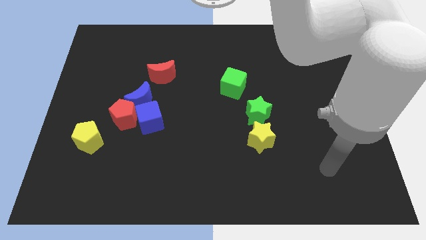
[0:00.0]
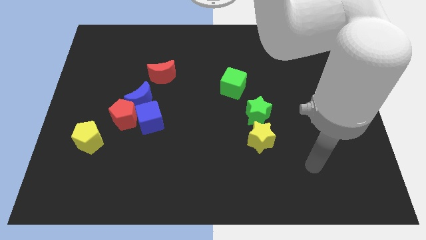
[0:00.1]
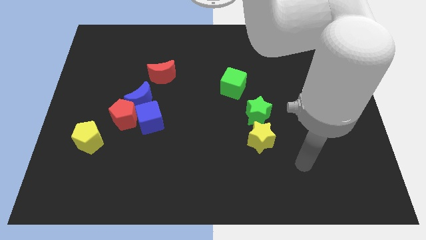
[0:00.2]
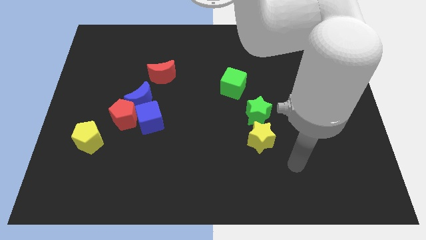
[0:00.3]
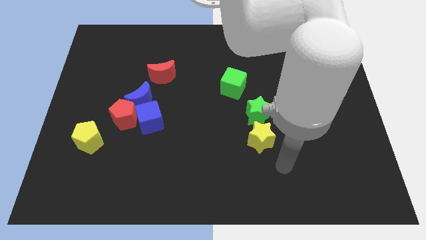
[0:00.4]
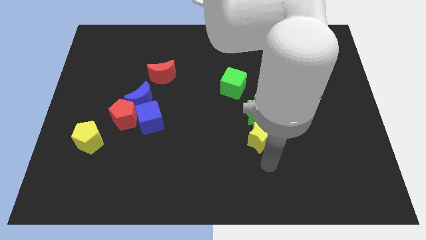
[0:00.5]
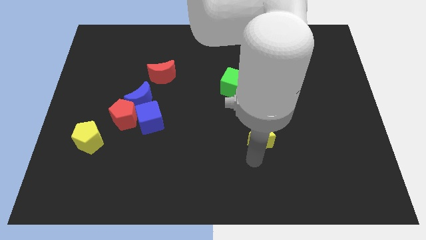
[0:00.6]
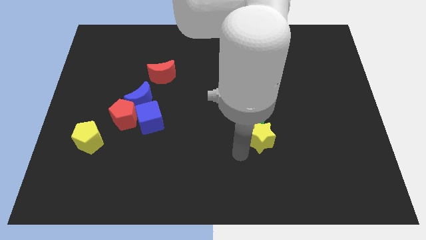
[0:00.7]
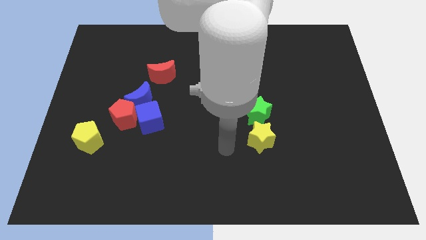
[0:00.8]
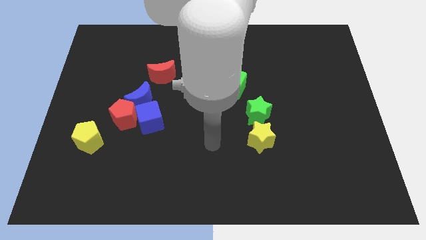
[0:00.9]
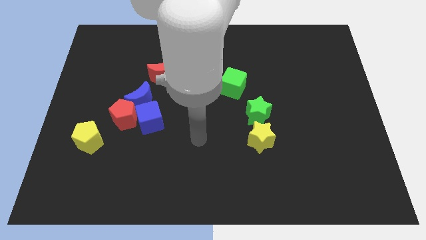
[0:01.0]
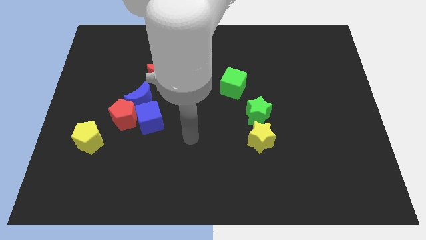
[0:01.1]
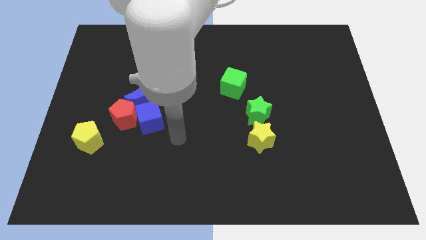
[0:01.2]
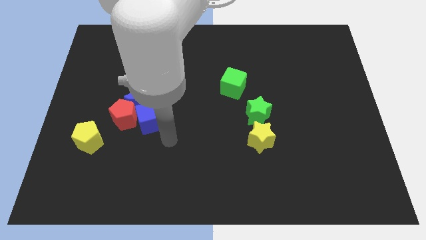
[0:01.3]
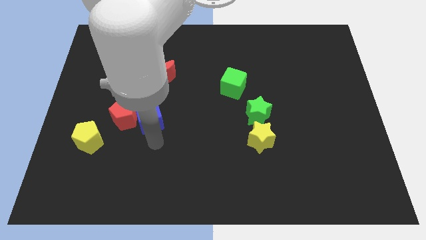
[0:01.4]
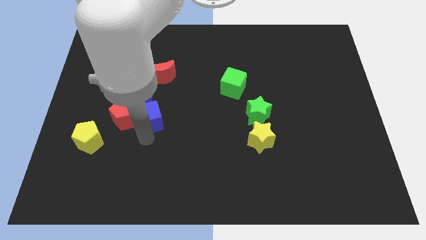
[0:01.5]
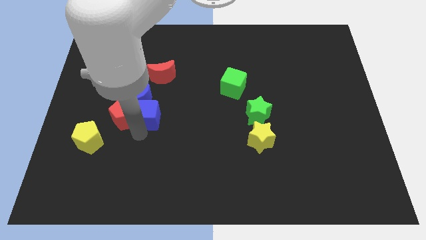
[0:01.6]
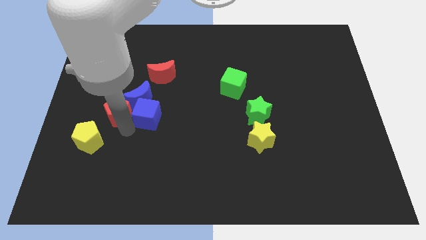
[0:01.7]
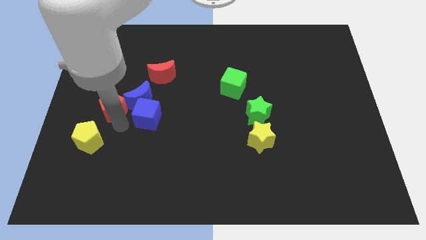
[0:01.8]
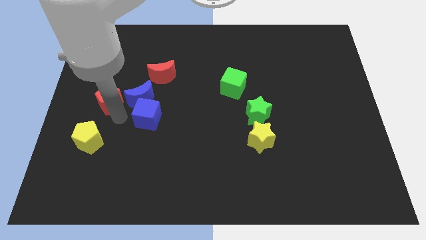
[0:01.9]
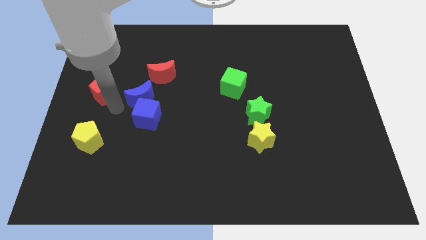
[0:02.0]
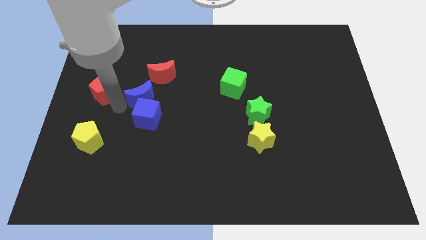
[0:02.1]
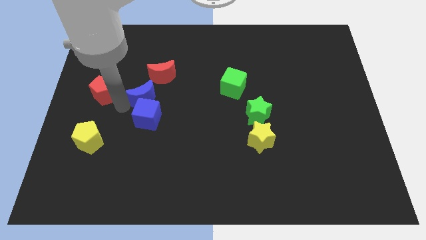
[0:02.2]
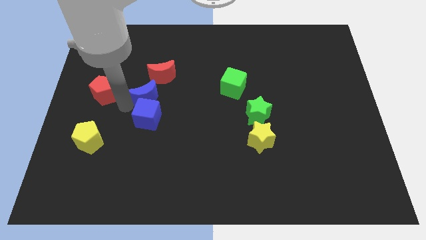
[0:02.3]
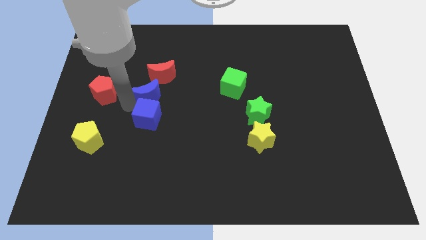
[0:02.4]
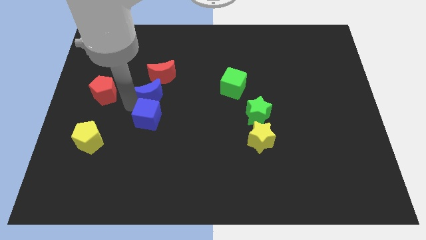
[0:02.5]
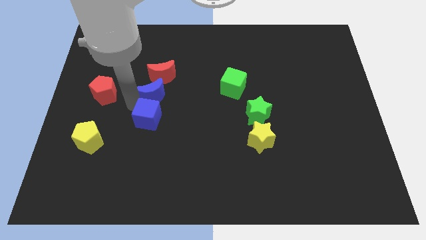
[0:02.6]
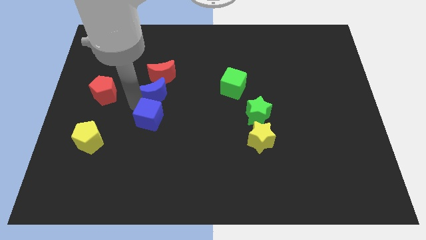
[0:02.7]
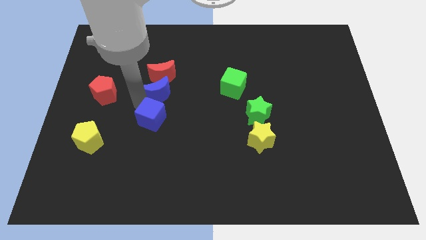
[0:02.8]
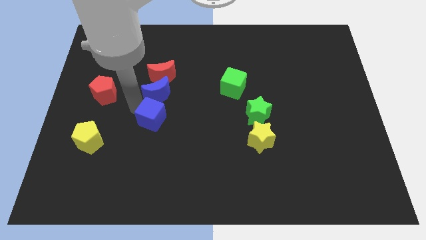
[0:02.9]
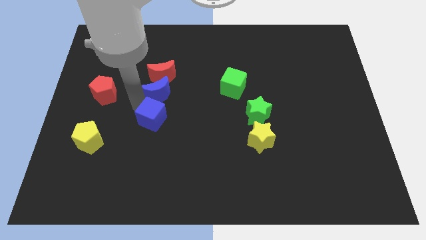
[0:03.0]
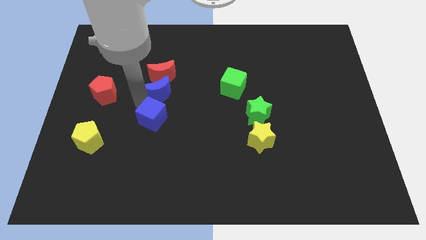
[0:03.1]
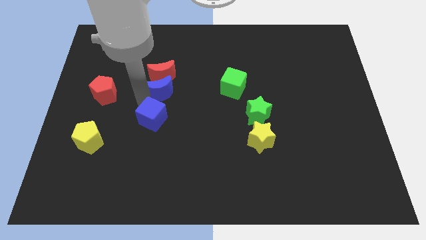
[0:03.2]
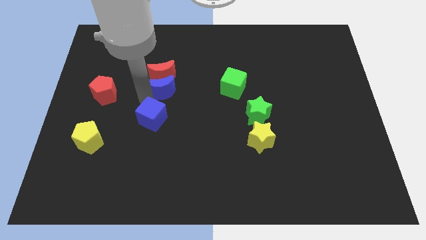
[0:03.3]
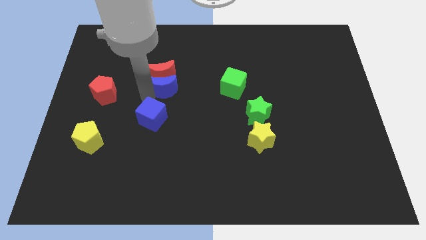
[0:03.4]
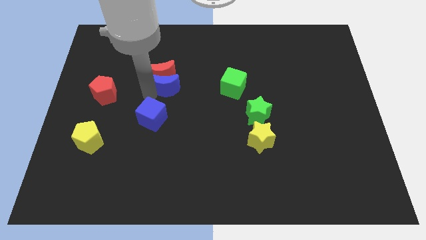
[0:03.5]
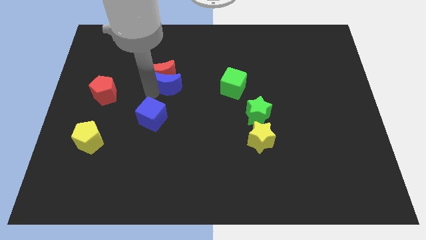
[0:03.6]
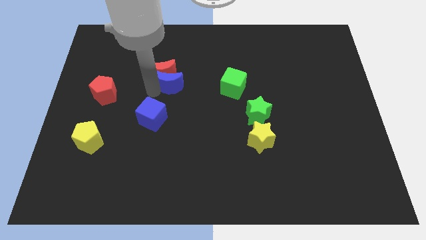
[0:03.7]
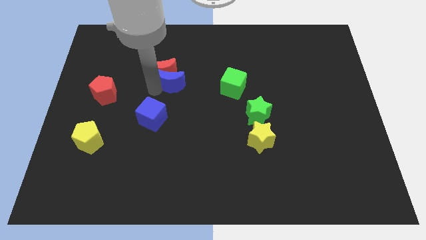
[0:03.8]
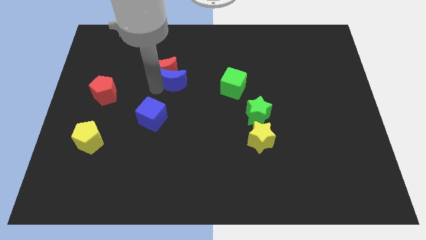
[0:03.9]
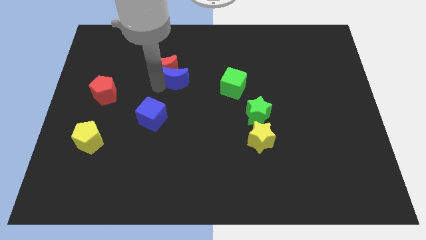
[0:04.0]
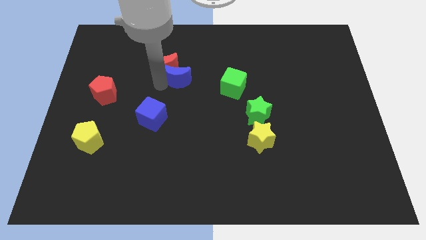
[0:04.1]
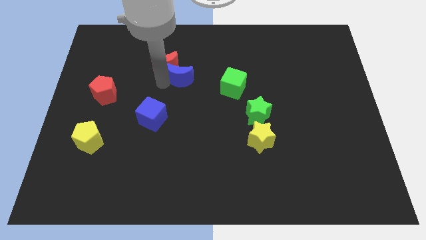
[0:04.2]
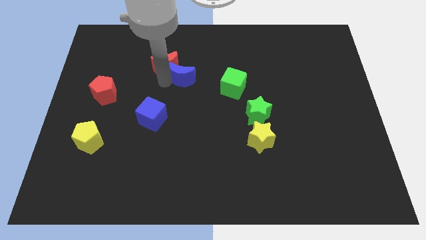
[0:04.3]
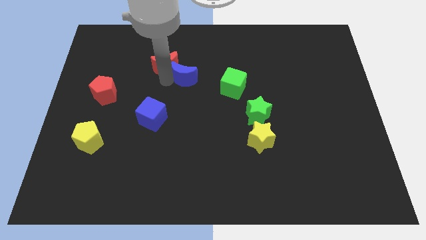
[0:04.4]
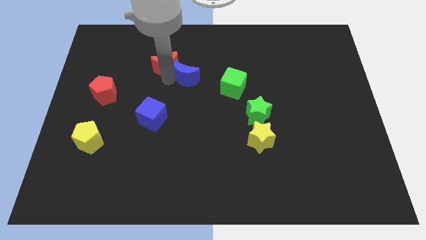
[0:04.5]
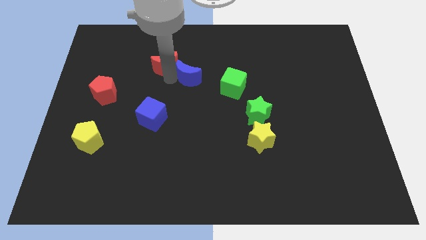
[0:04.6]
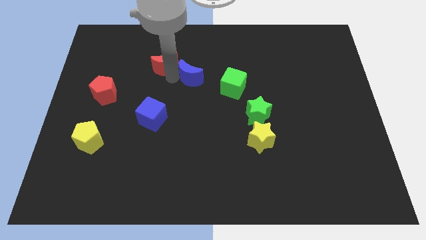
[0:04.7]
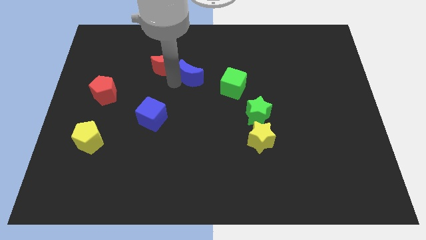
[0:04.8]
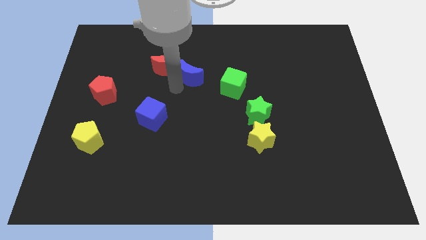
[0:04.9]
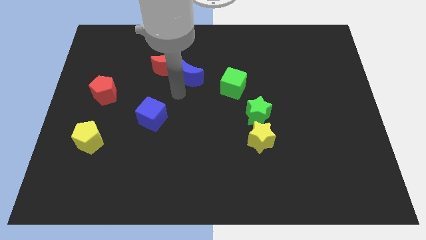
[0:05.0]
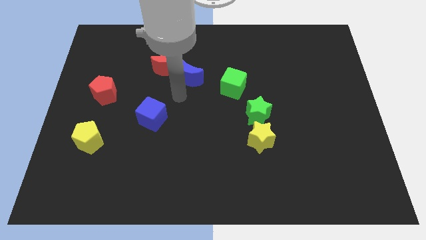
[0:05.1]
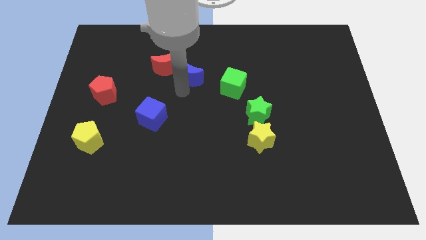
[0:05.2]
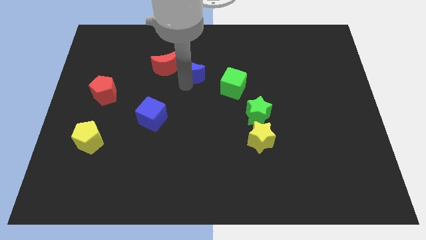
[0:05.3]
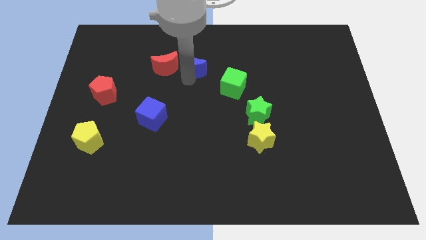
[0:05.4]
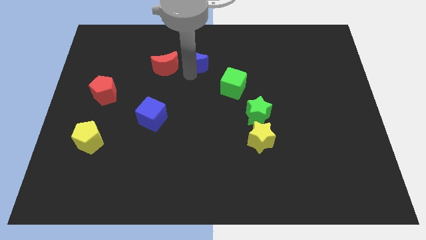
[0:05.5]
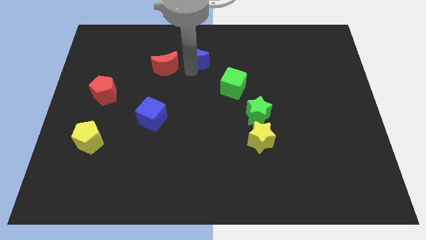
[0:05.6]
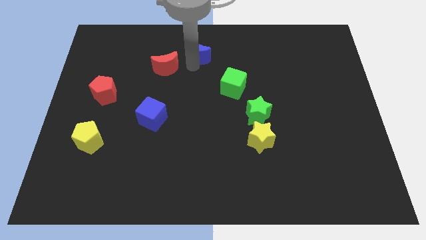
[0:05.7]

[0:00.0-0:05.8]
push the blue moon to the top side

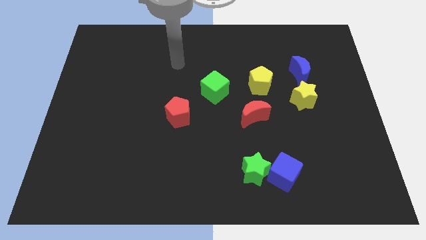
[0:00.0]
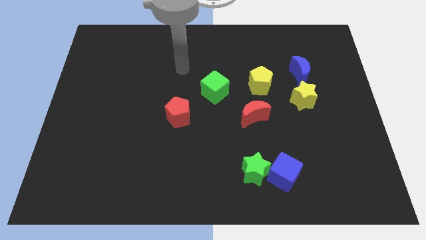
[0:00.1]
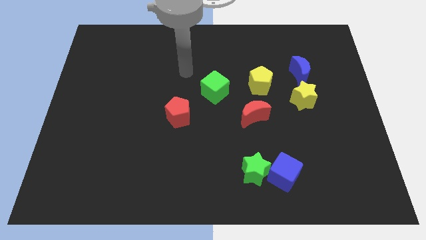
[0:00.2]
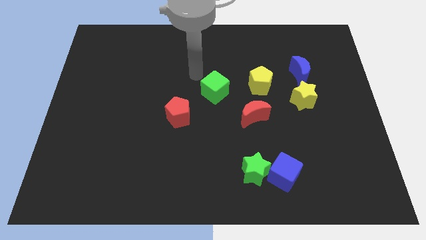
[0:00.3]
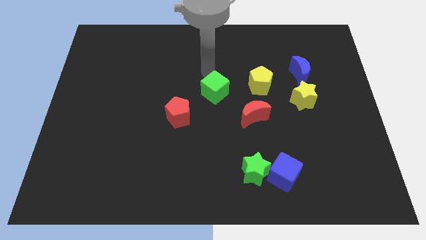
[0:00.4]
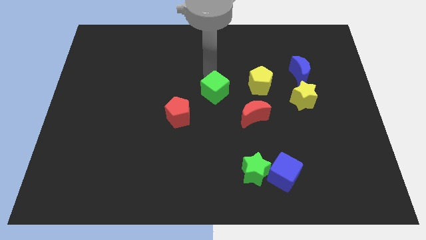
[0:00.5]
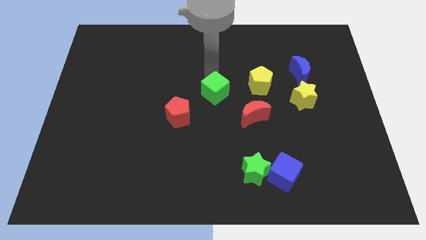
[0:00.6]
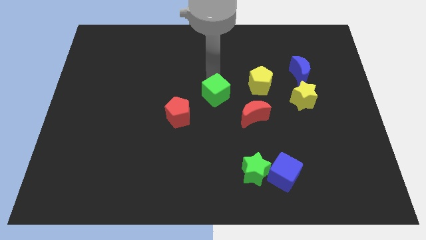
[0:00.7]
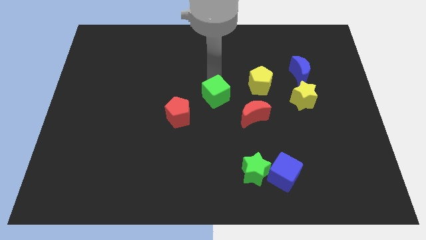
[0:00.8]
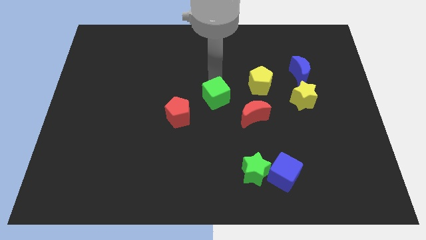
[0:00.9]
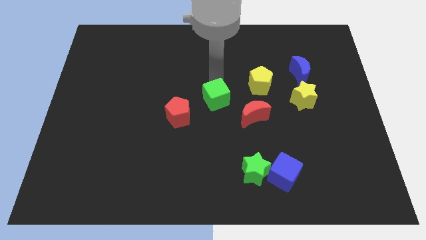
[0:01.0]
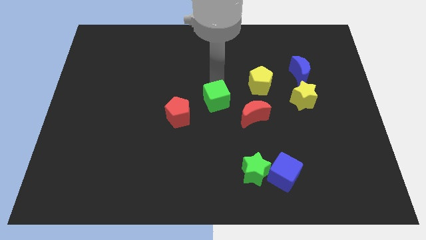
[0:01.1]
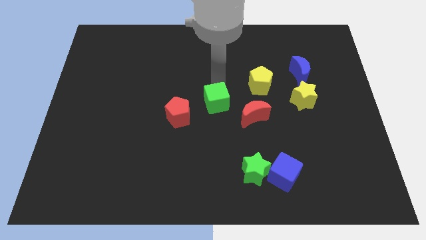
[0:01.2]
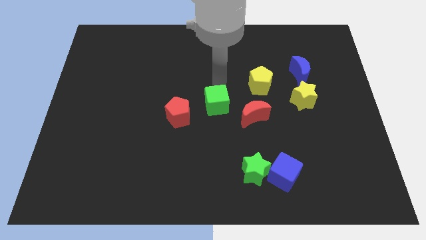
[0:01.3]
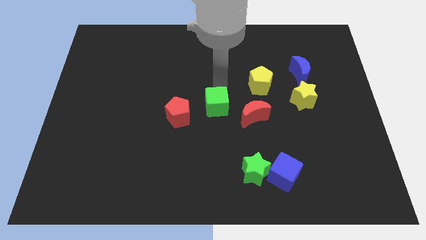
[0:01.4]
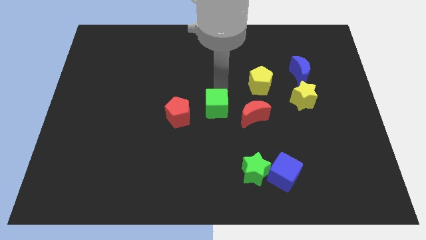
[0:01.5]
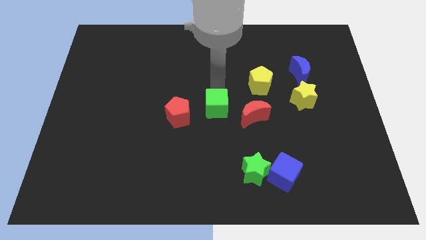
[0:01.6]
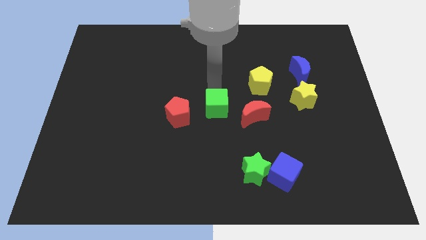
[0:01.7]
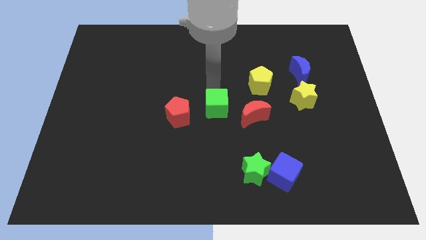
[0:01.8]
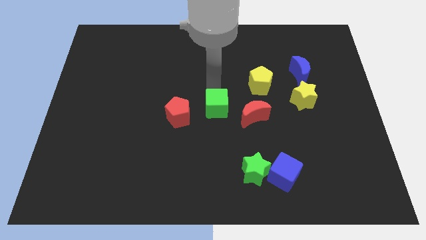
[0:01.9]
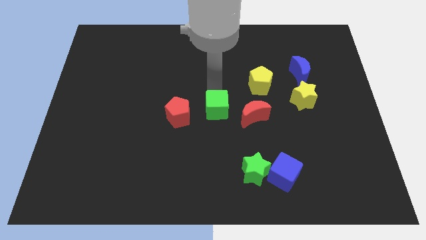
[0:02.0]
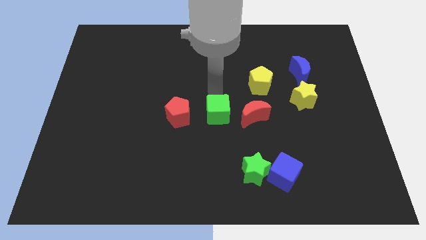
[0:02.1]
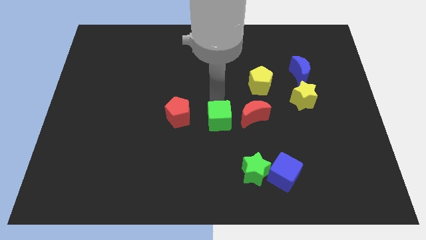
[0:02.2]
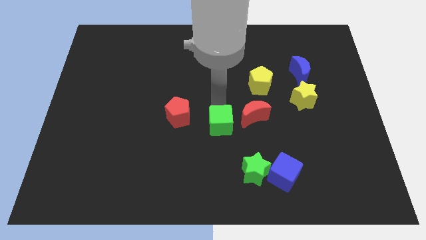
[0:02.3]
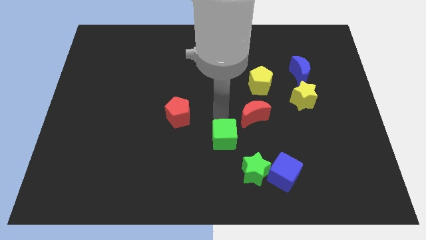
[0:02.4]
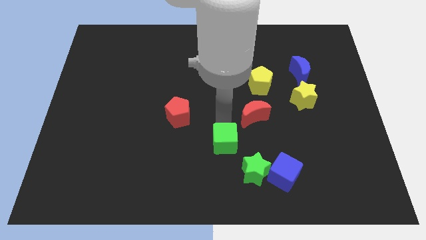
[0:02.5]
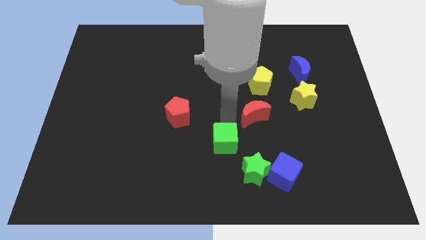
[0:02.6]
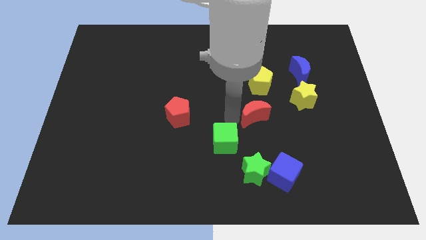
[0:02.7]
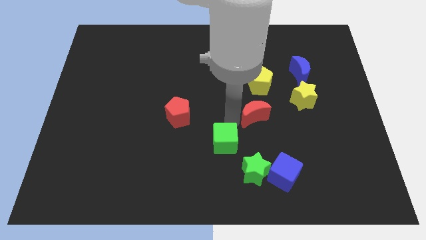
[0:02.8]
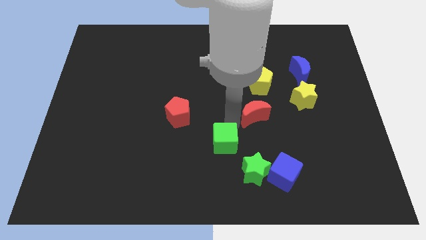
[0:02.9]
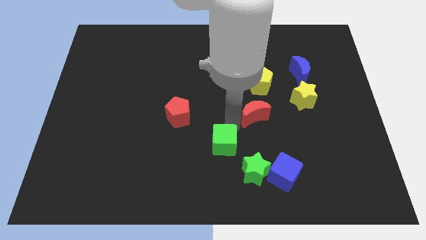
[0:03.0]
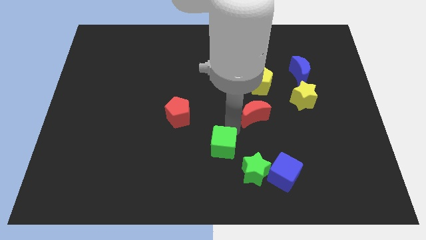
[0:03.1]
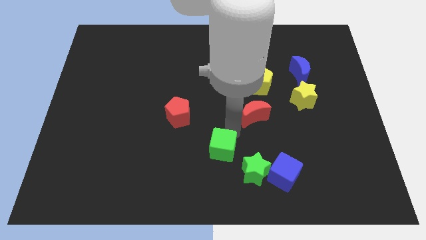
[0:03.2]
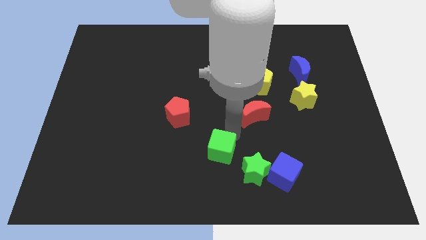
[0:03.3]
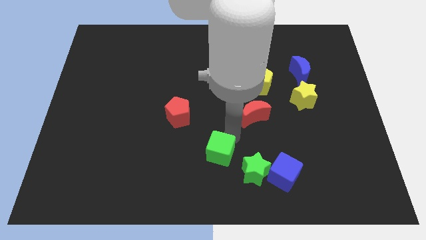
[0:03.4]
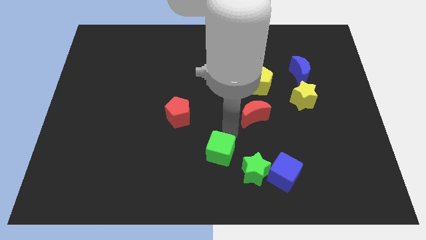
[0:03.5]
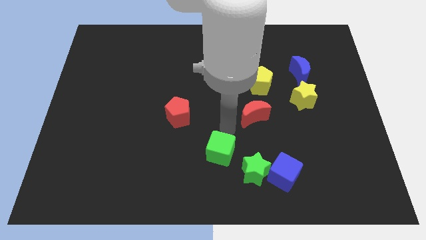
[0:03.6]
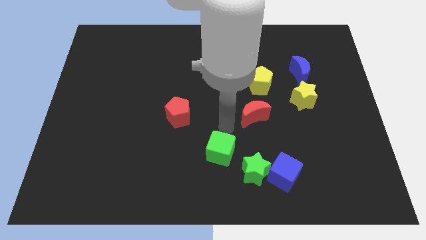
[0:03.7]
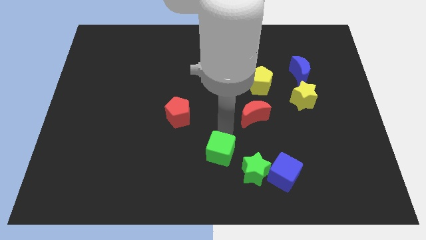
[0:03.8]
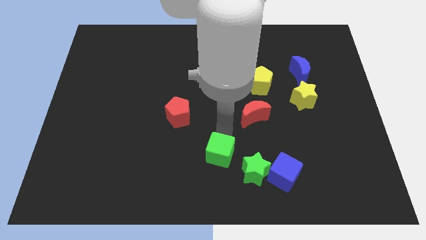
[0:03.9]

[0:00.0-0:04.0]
move the green cube to the bottom
